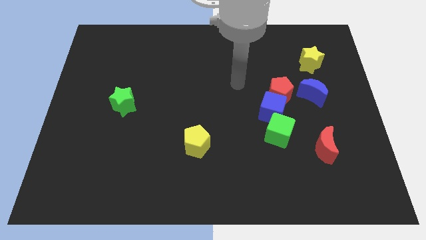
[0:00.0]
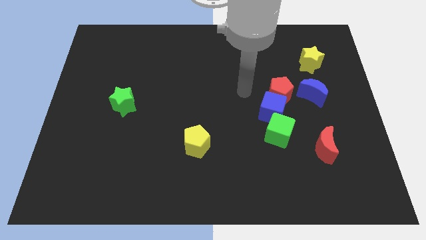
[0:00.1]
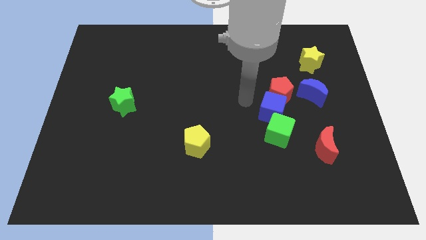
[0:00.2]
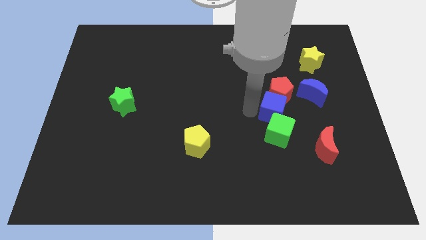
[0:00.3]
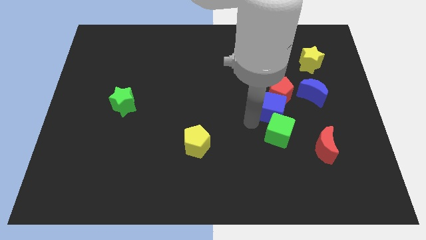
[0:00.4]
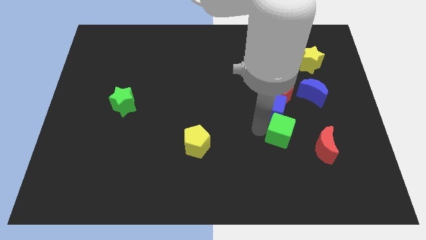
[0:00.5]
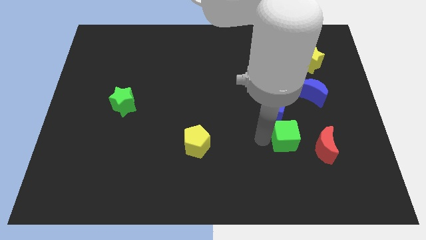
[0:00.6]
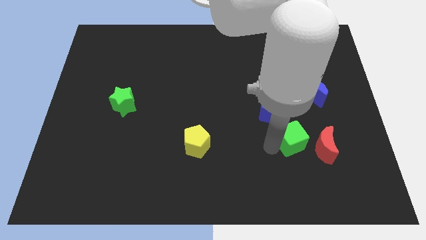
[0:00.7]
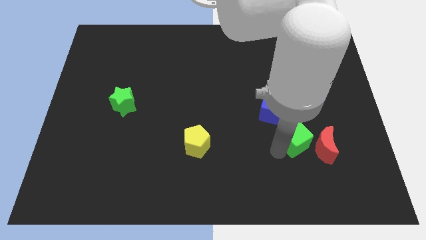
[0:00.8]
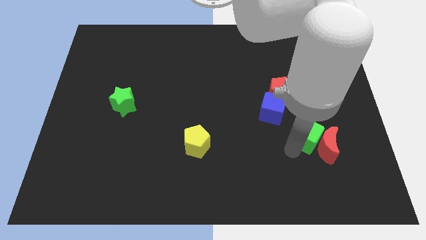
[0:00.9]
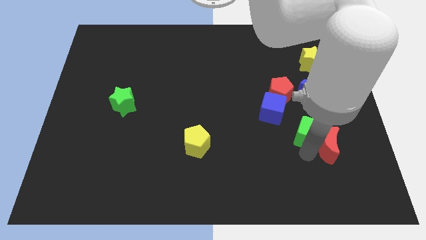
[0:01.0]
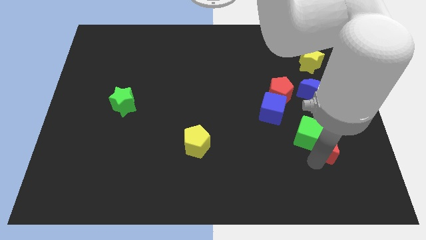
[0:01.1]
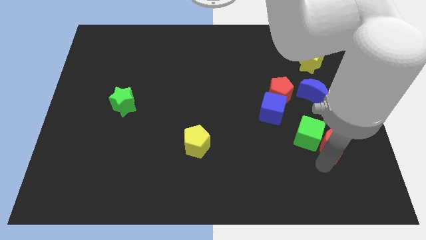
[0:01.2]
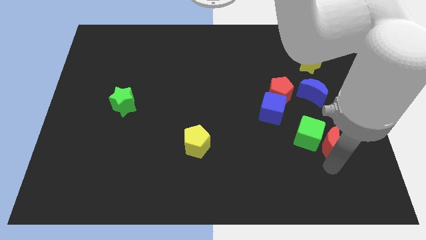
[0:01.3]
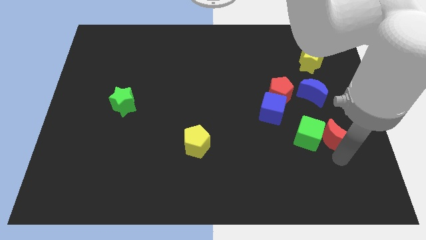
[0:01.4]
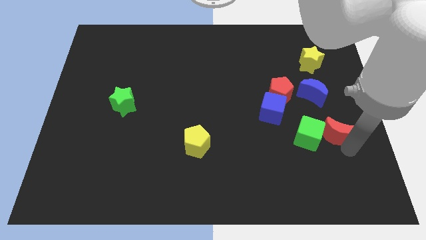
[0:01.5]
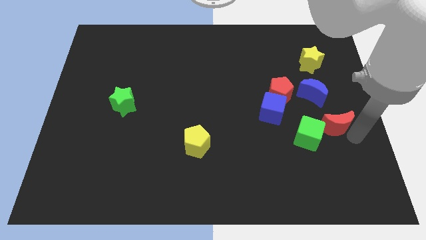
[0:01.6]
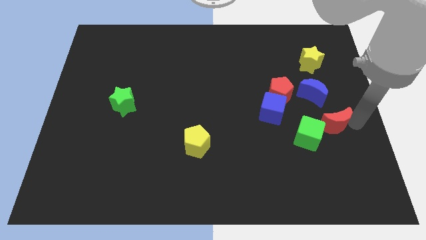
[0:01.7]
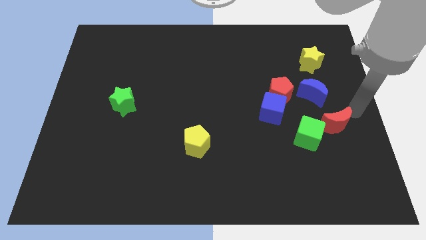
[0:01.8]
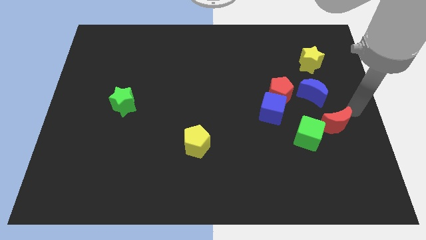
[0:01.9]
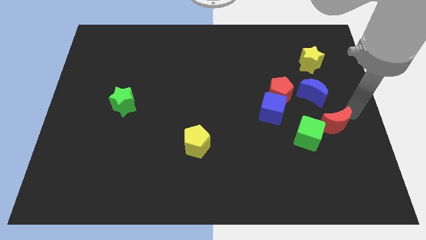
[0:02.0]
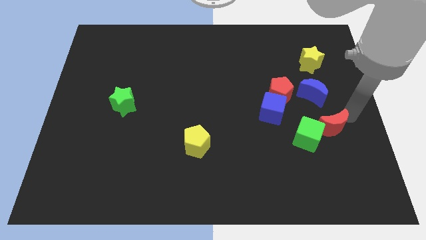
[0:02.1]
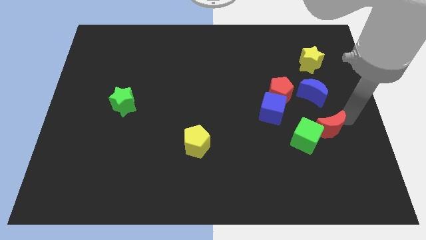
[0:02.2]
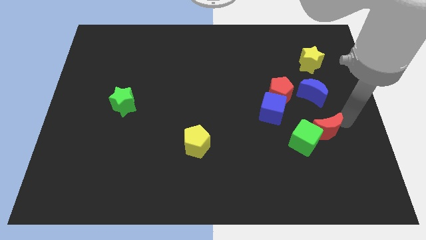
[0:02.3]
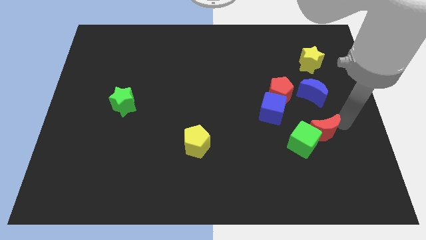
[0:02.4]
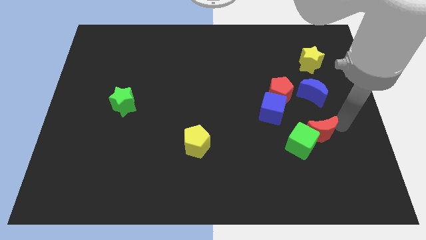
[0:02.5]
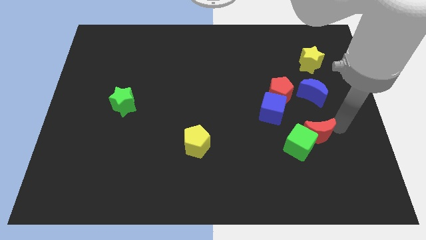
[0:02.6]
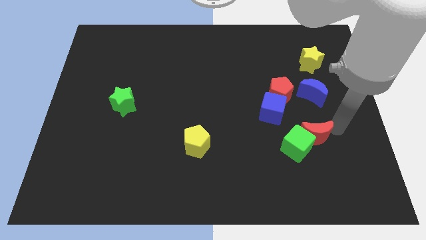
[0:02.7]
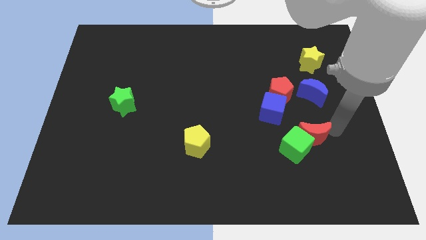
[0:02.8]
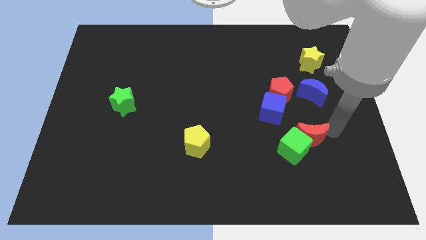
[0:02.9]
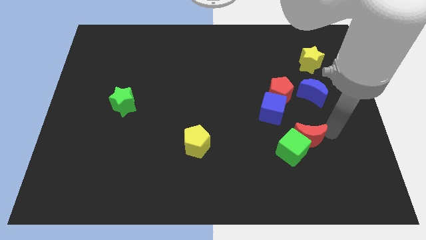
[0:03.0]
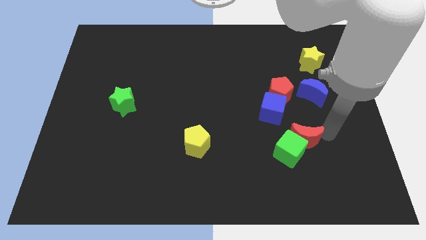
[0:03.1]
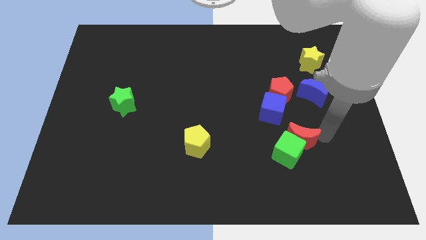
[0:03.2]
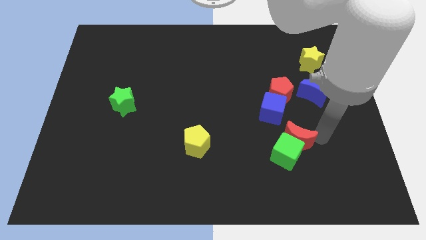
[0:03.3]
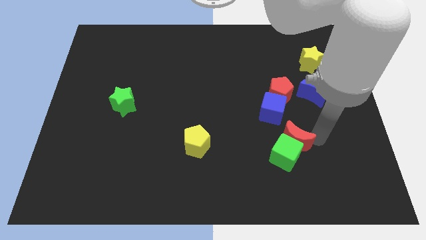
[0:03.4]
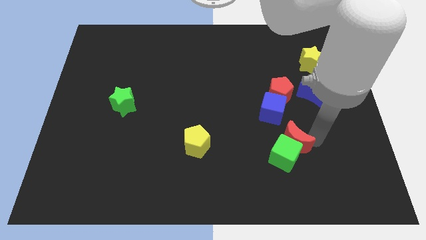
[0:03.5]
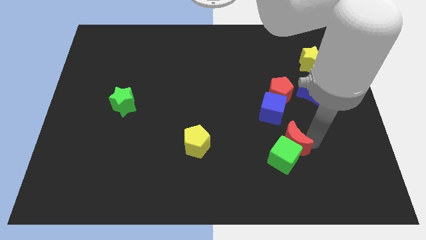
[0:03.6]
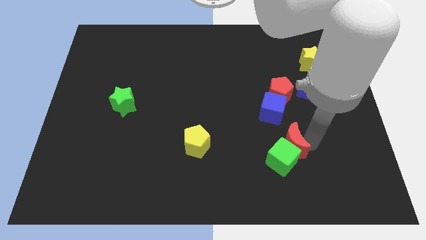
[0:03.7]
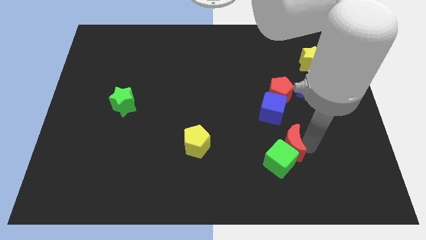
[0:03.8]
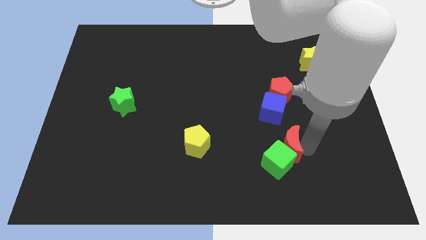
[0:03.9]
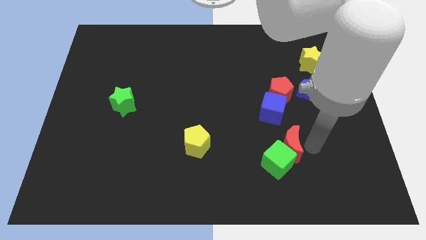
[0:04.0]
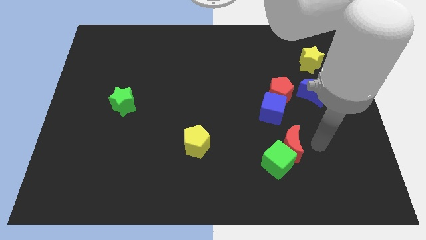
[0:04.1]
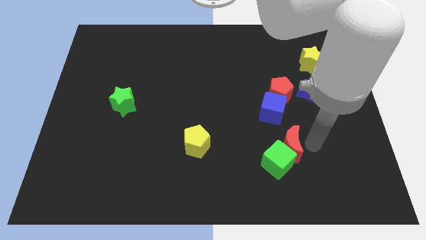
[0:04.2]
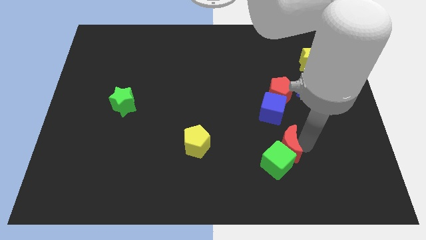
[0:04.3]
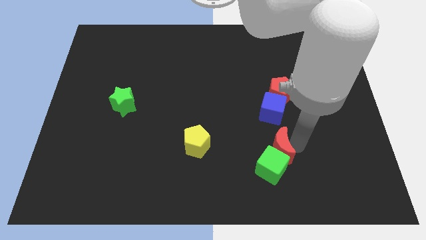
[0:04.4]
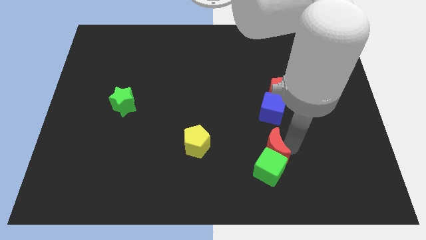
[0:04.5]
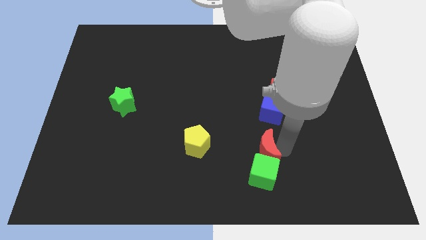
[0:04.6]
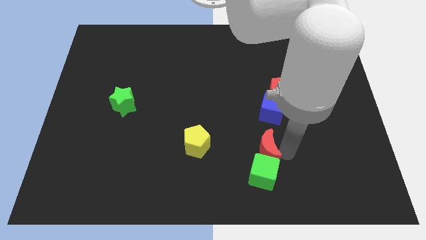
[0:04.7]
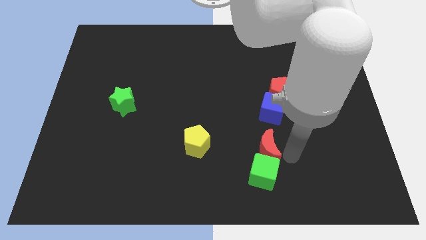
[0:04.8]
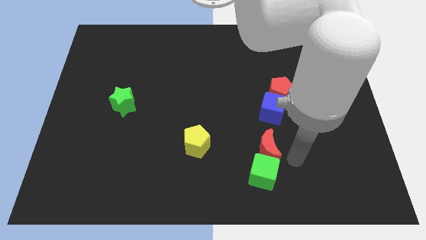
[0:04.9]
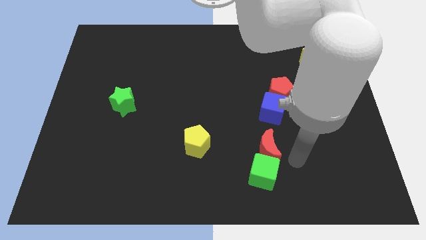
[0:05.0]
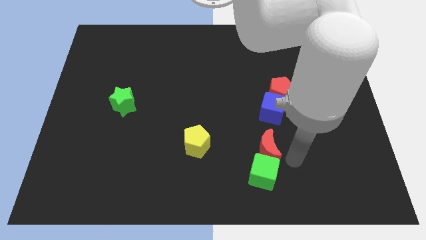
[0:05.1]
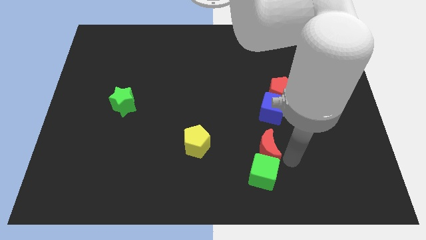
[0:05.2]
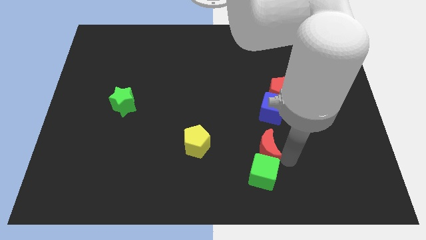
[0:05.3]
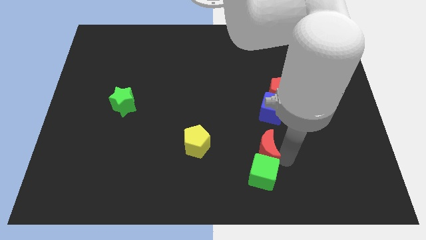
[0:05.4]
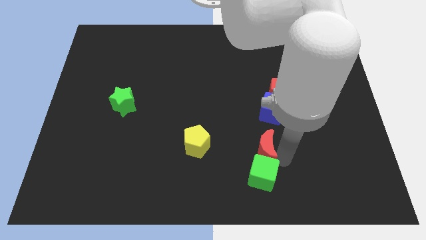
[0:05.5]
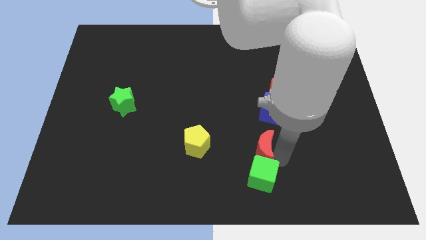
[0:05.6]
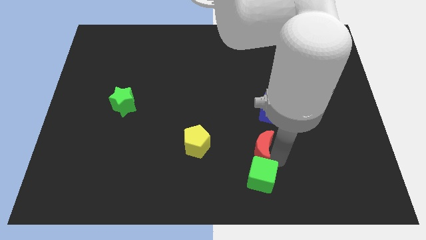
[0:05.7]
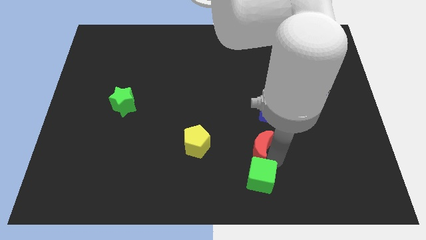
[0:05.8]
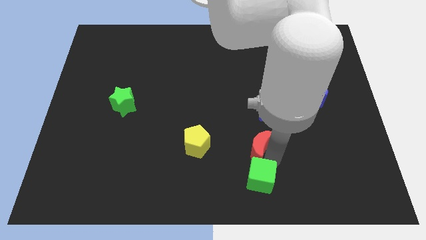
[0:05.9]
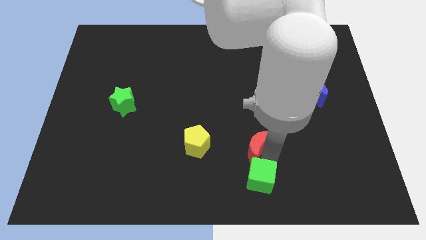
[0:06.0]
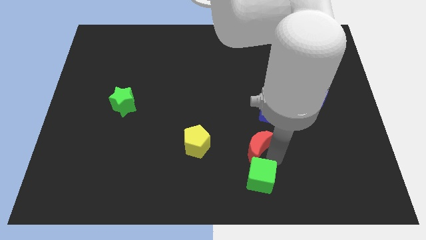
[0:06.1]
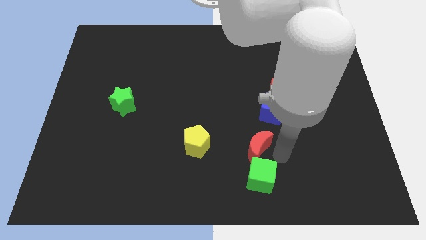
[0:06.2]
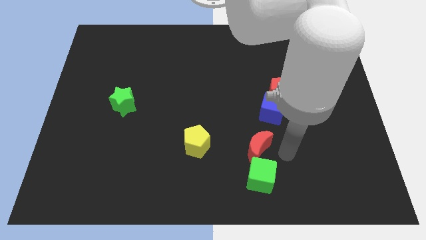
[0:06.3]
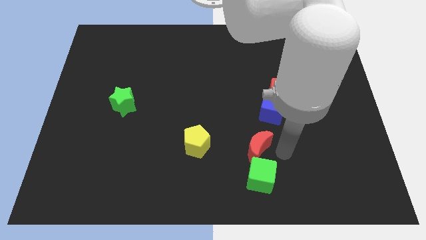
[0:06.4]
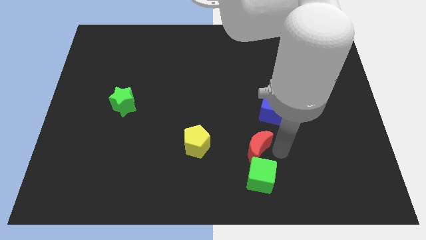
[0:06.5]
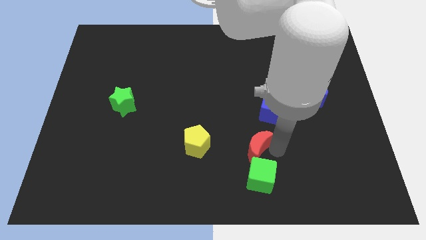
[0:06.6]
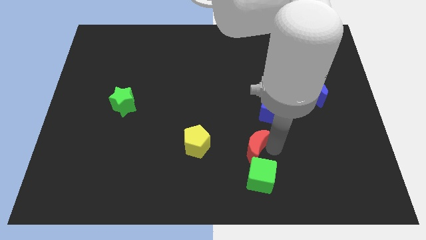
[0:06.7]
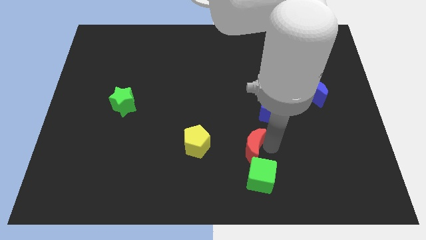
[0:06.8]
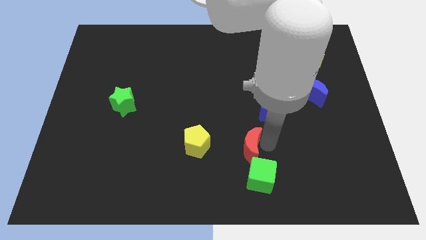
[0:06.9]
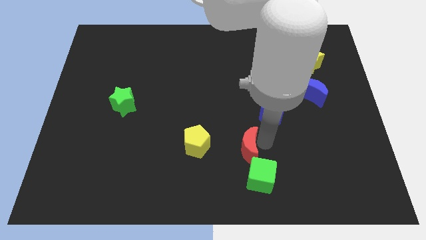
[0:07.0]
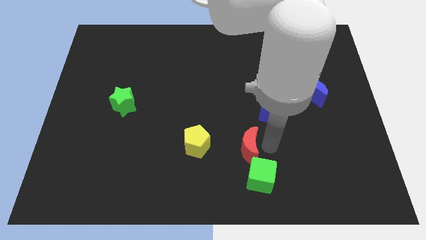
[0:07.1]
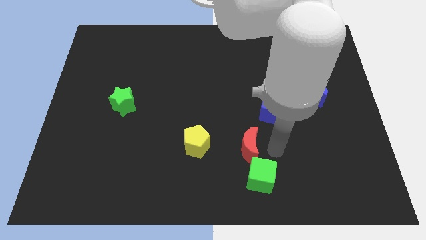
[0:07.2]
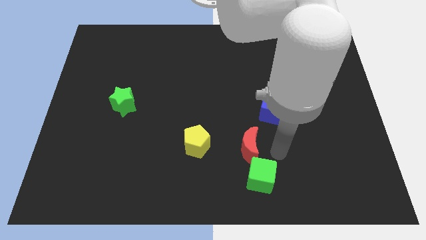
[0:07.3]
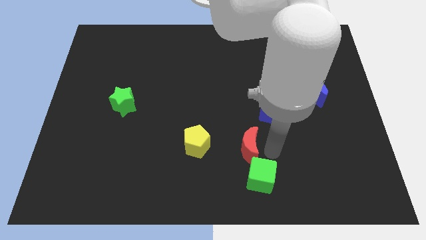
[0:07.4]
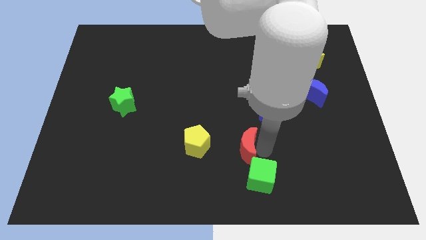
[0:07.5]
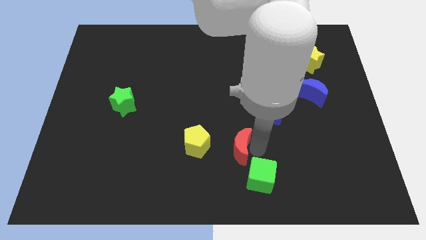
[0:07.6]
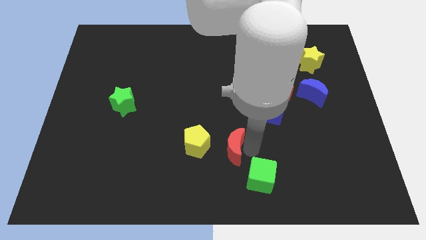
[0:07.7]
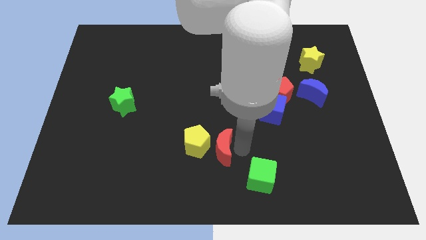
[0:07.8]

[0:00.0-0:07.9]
slide the red moon towards the yellow pentagon
